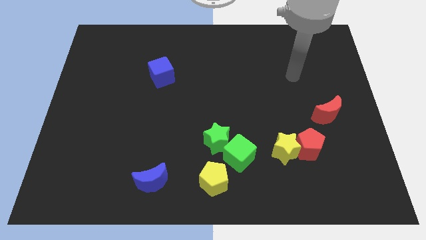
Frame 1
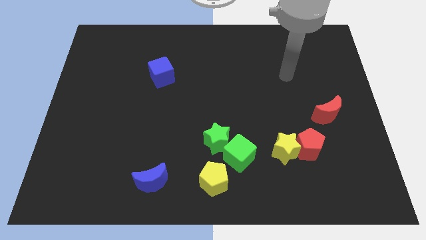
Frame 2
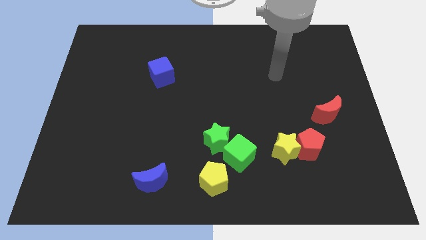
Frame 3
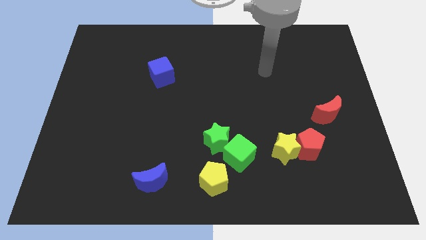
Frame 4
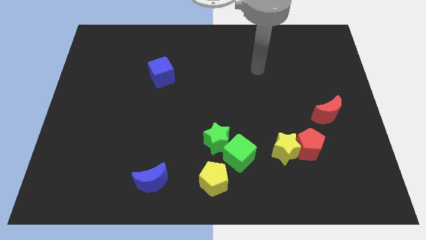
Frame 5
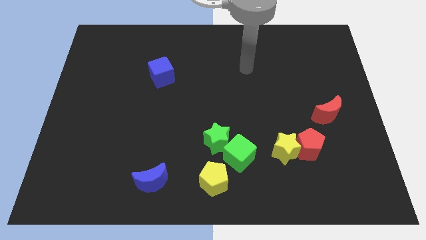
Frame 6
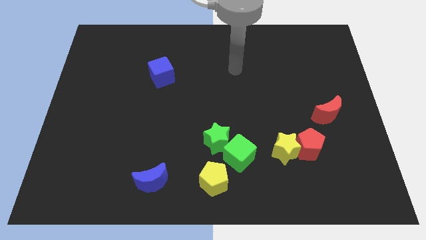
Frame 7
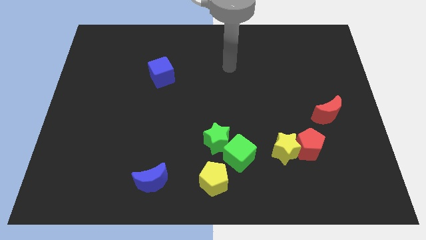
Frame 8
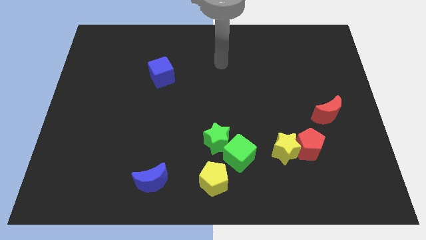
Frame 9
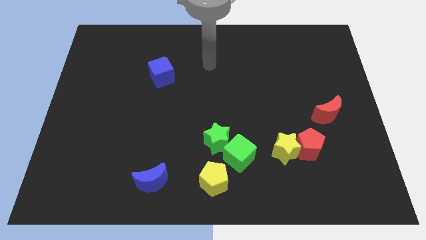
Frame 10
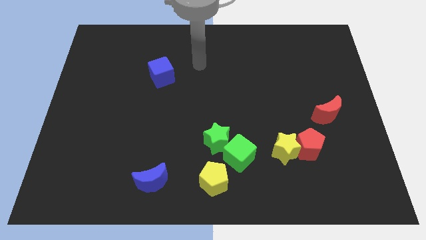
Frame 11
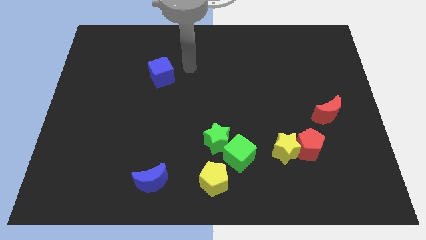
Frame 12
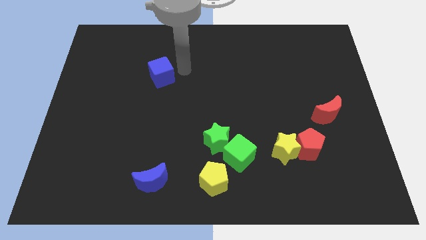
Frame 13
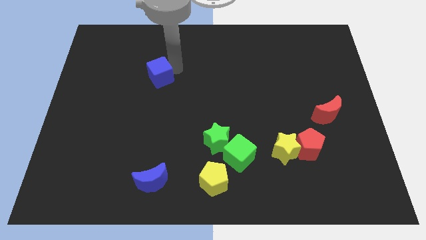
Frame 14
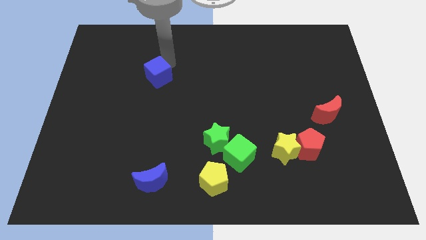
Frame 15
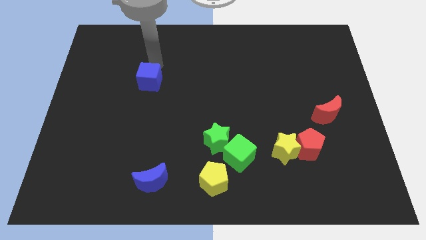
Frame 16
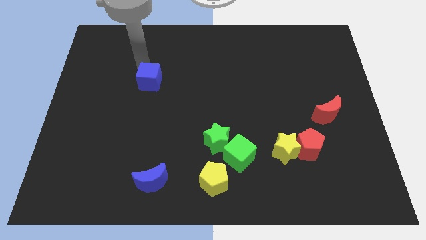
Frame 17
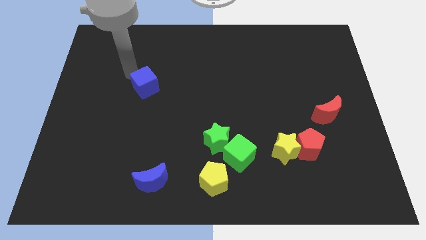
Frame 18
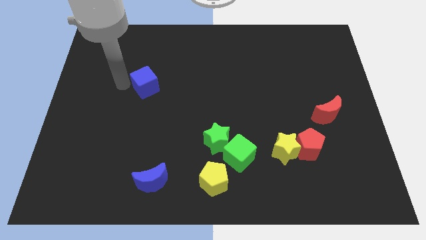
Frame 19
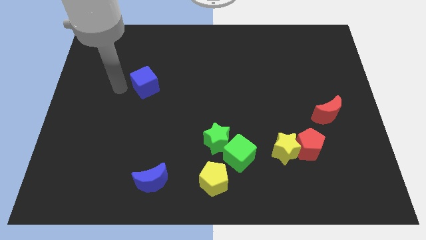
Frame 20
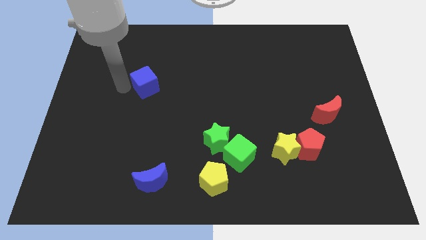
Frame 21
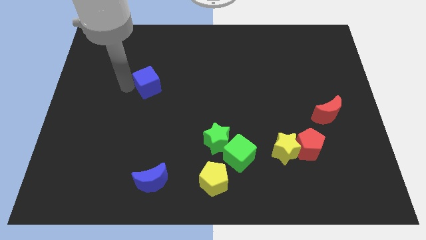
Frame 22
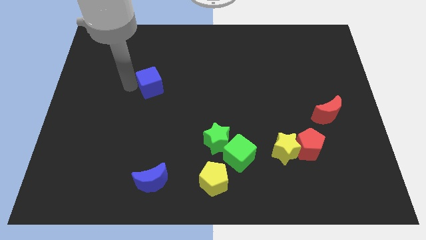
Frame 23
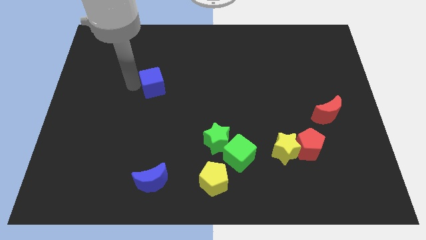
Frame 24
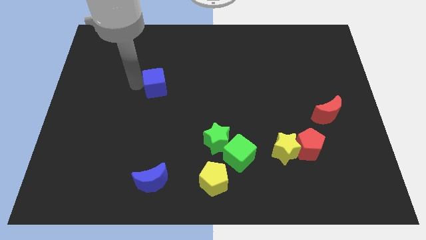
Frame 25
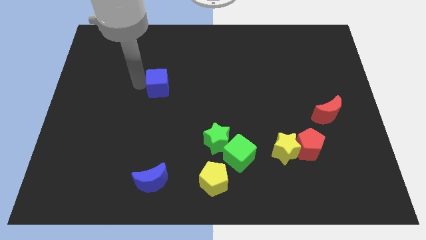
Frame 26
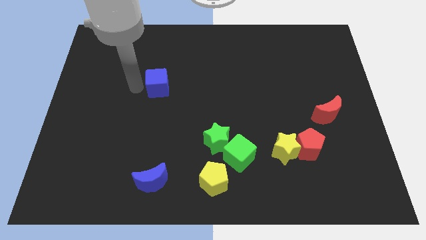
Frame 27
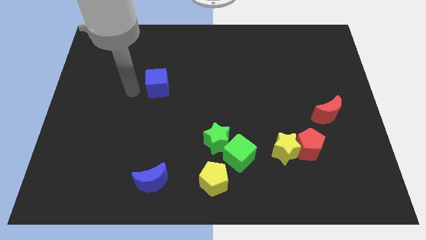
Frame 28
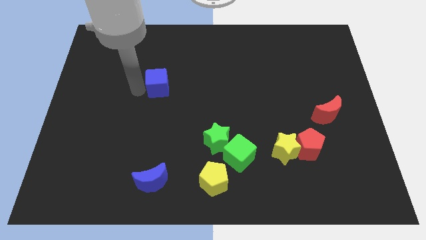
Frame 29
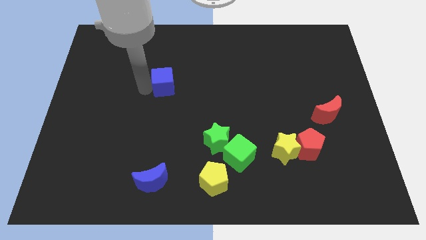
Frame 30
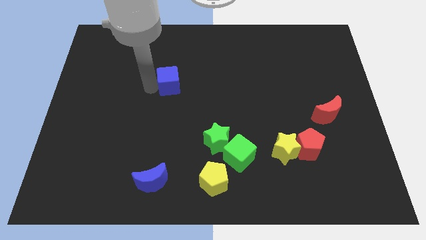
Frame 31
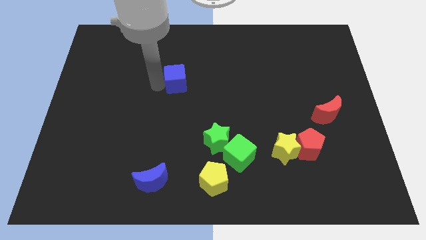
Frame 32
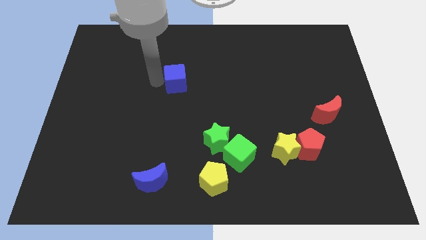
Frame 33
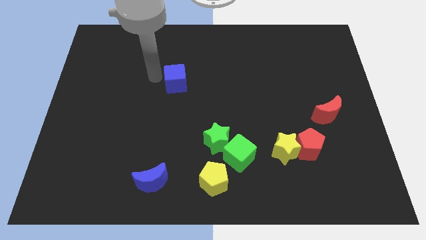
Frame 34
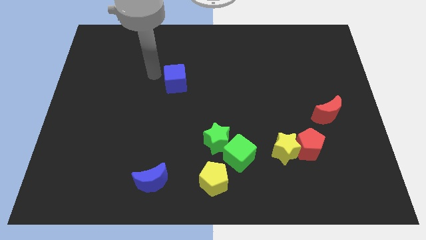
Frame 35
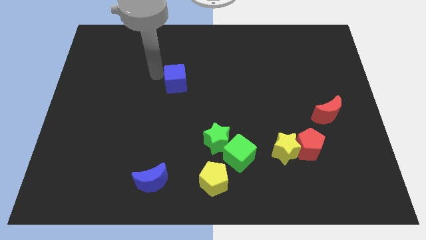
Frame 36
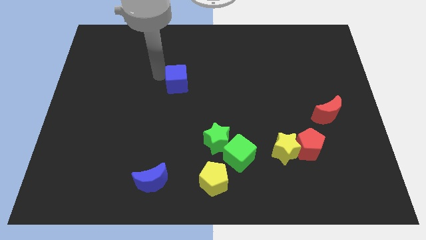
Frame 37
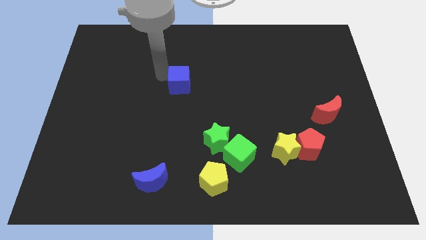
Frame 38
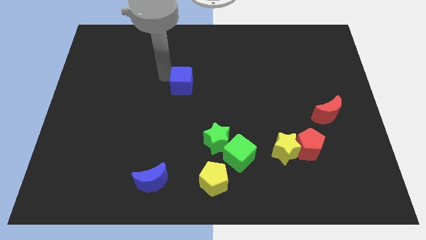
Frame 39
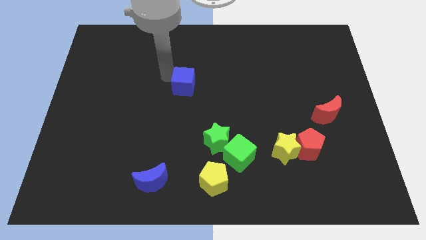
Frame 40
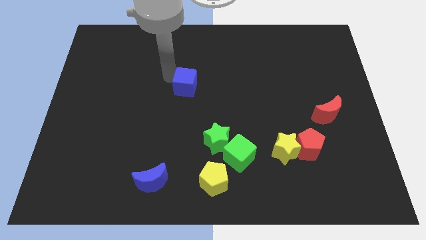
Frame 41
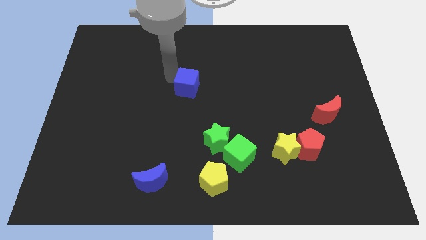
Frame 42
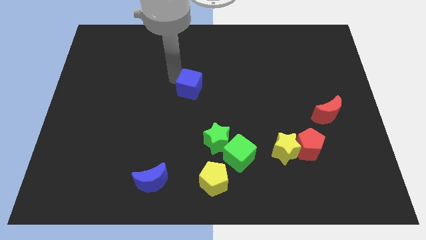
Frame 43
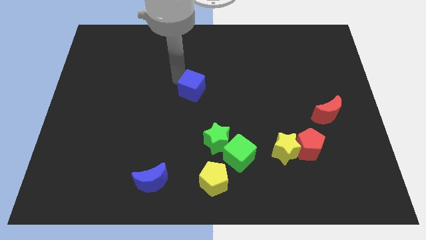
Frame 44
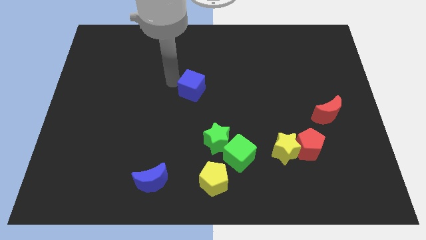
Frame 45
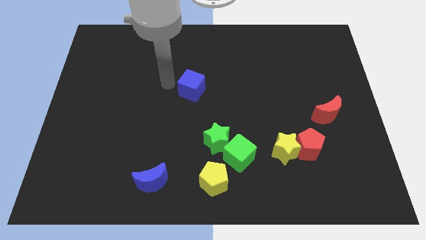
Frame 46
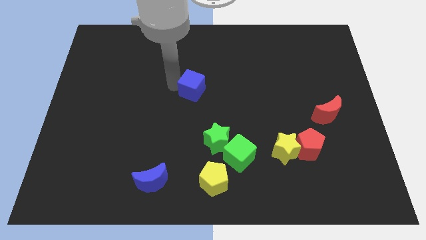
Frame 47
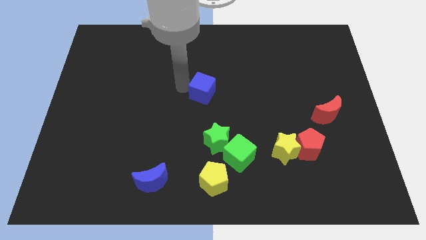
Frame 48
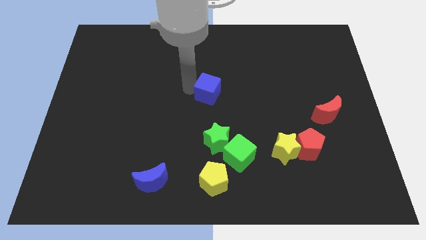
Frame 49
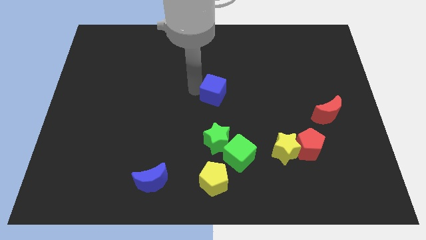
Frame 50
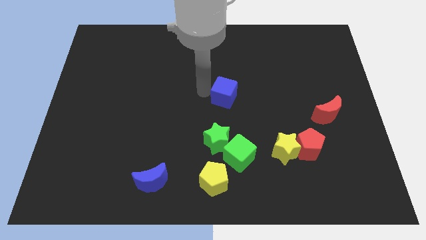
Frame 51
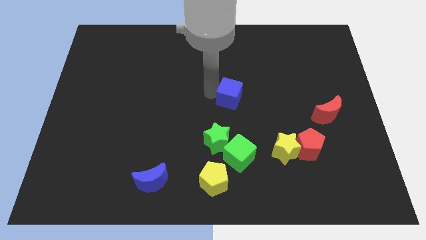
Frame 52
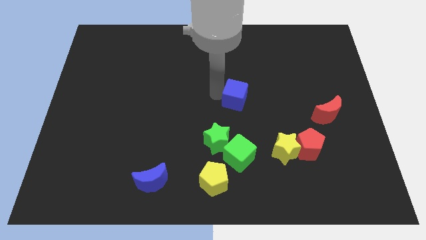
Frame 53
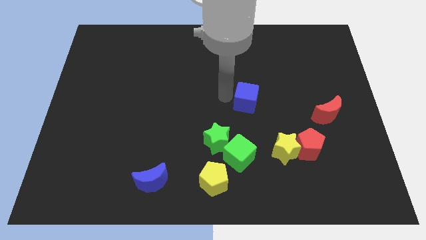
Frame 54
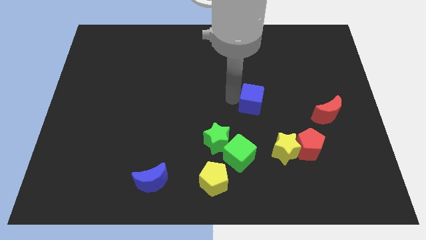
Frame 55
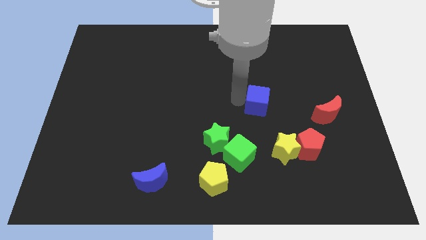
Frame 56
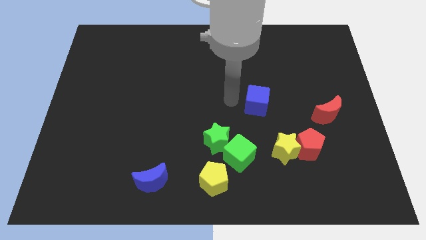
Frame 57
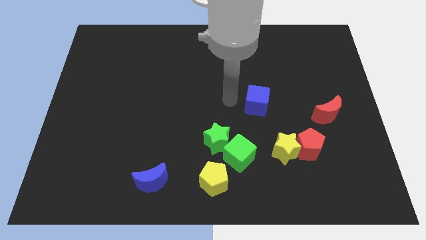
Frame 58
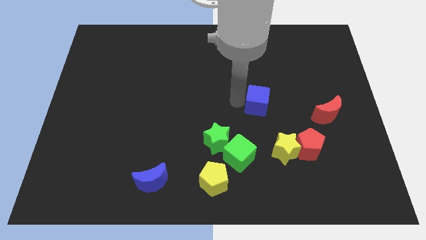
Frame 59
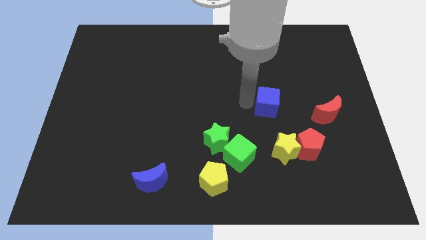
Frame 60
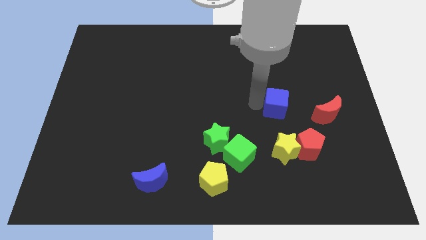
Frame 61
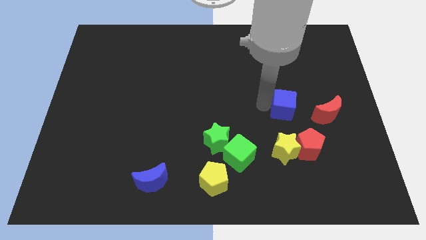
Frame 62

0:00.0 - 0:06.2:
put the blue cube above the red pentagon
